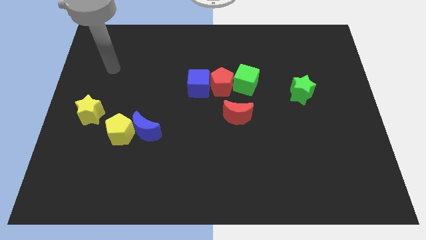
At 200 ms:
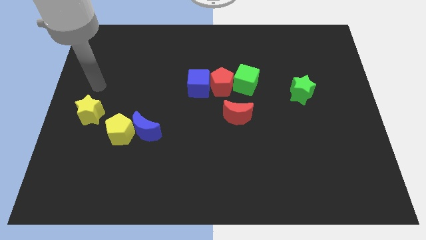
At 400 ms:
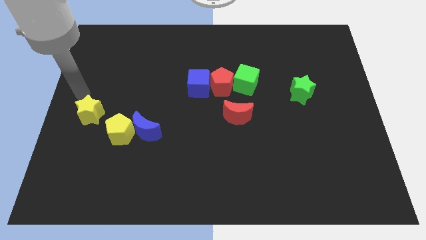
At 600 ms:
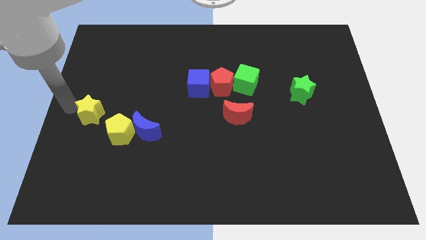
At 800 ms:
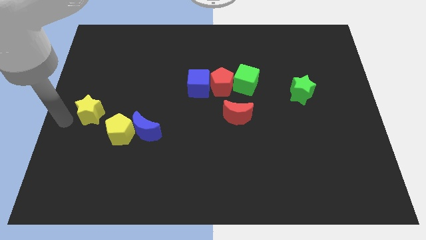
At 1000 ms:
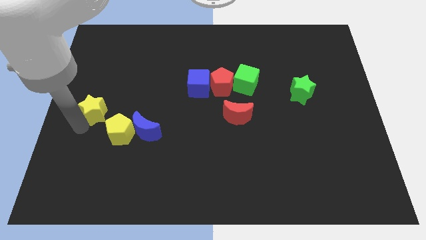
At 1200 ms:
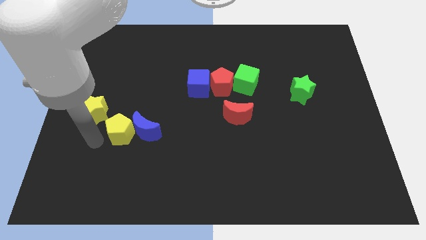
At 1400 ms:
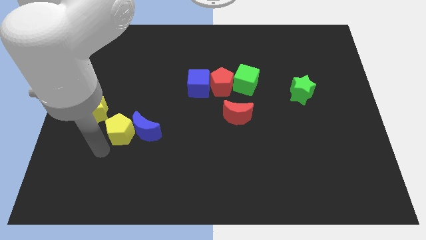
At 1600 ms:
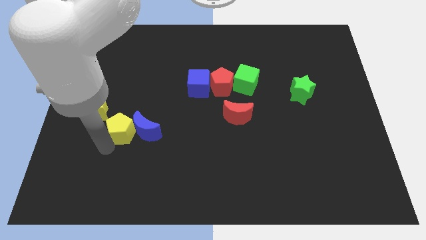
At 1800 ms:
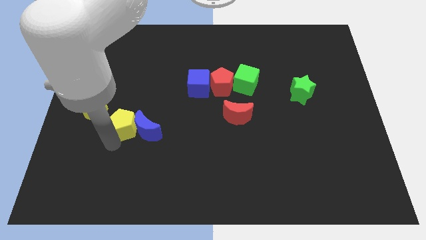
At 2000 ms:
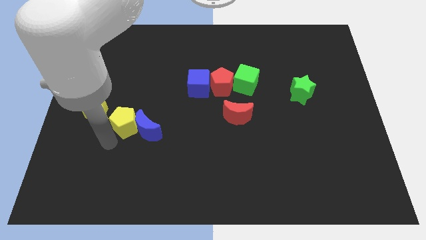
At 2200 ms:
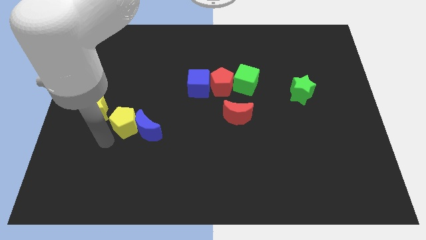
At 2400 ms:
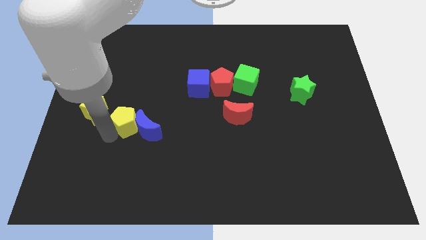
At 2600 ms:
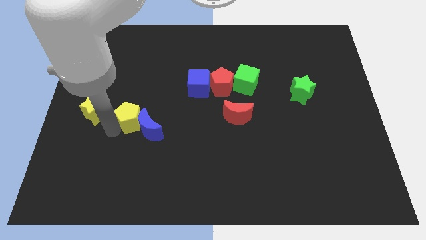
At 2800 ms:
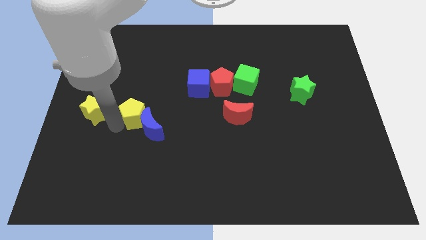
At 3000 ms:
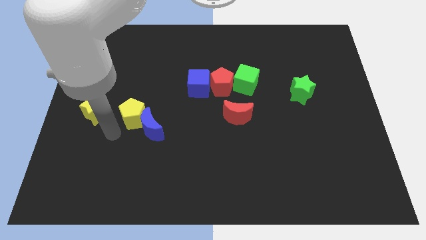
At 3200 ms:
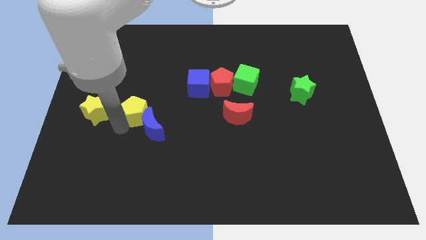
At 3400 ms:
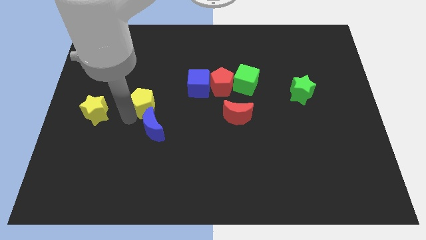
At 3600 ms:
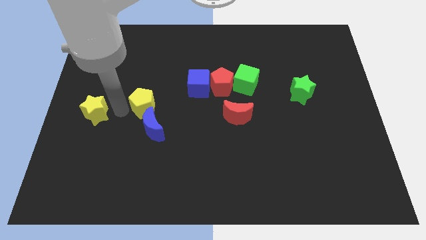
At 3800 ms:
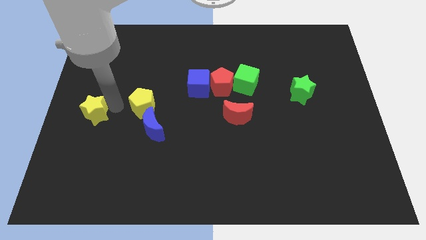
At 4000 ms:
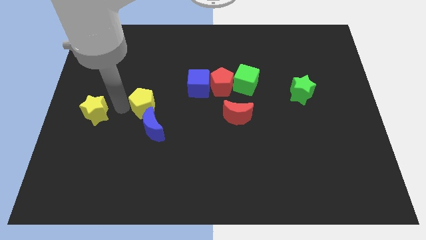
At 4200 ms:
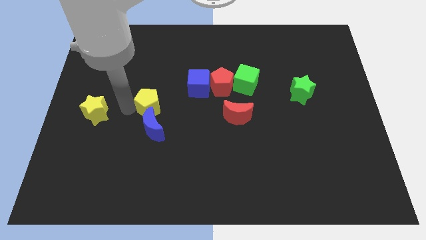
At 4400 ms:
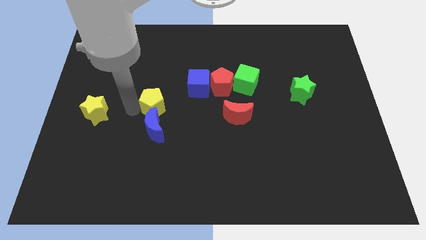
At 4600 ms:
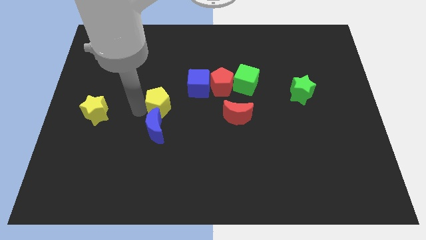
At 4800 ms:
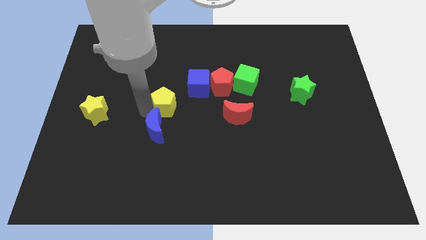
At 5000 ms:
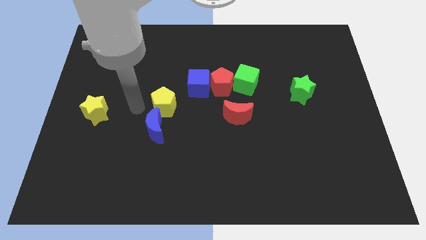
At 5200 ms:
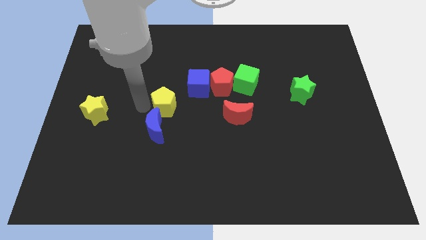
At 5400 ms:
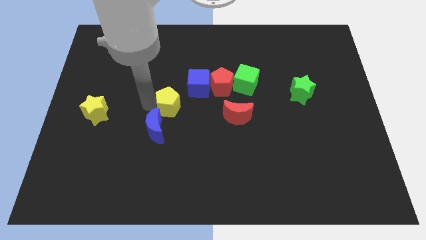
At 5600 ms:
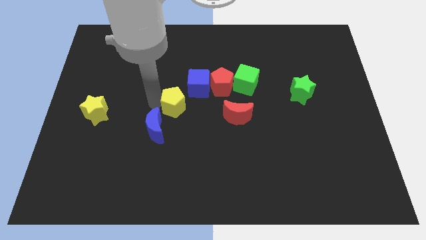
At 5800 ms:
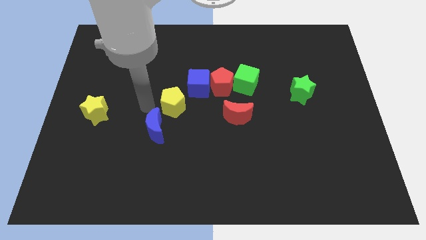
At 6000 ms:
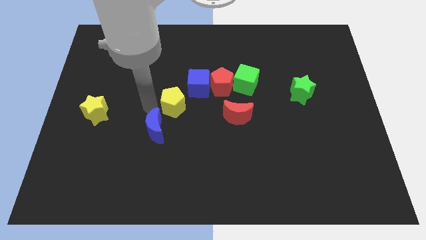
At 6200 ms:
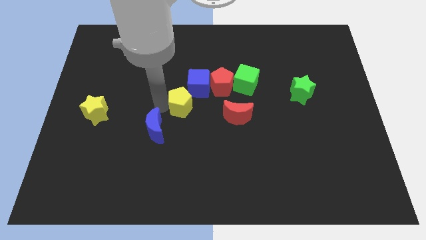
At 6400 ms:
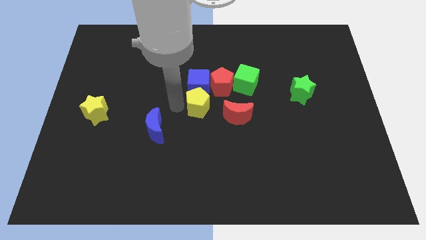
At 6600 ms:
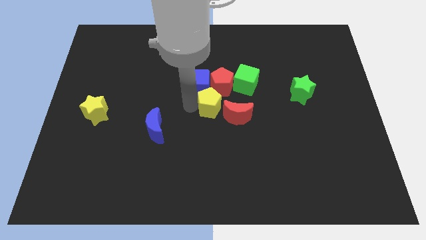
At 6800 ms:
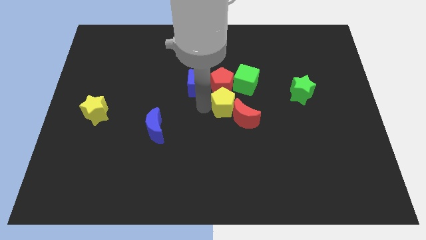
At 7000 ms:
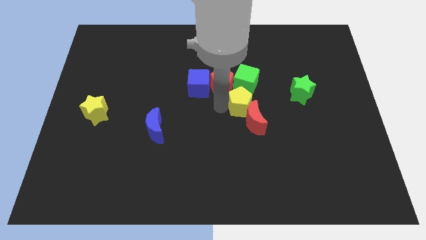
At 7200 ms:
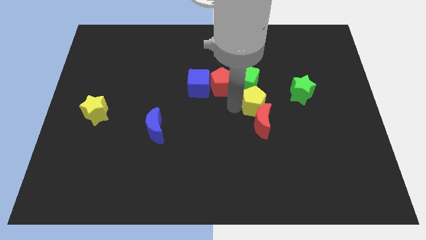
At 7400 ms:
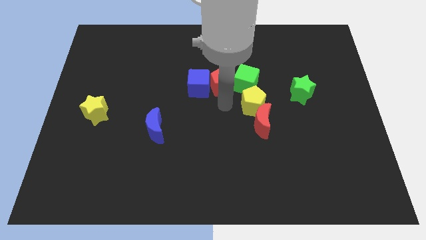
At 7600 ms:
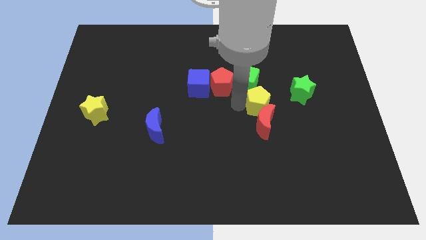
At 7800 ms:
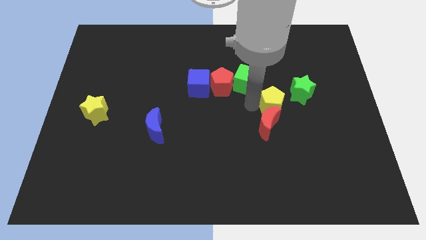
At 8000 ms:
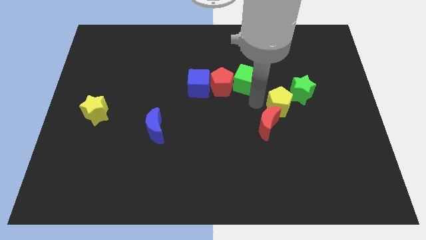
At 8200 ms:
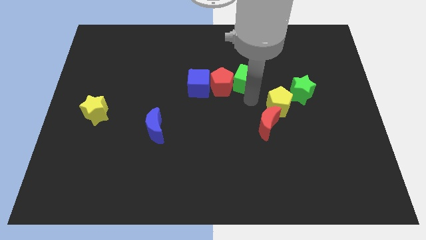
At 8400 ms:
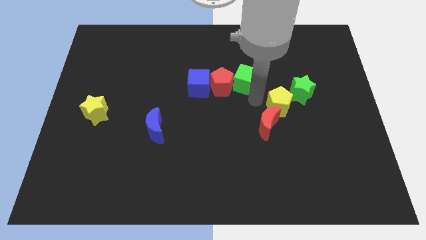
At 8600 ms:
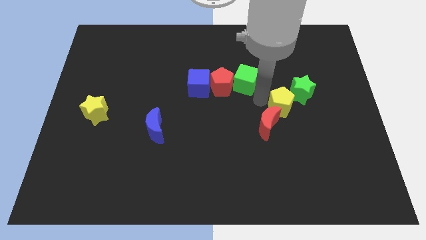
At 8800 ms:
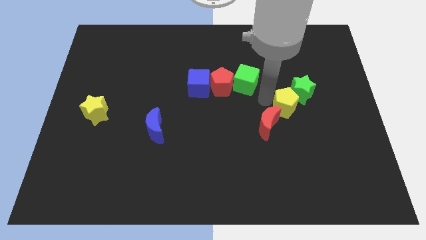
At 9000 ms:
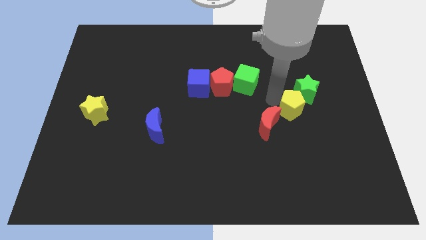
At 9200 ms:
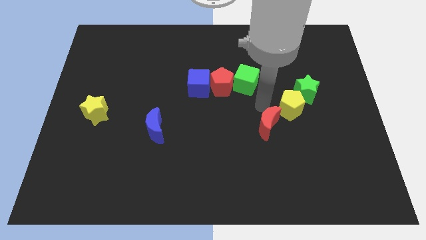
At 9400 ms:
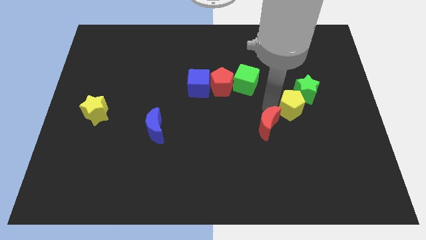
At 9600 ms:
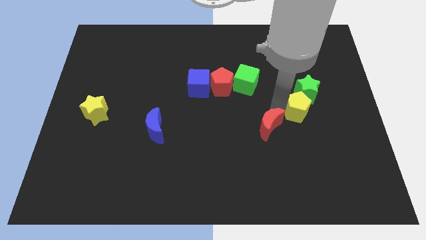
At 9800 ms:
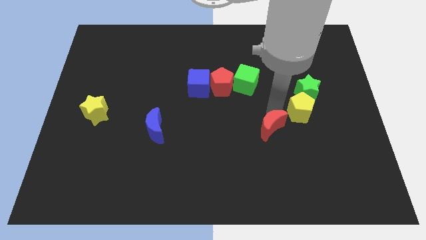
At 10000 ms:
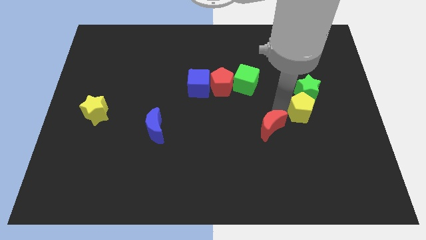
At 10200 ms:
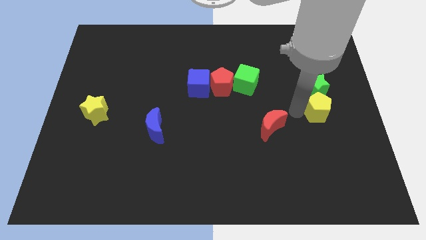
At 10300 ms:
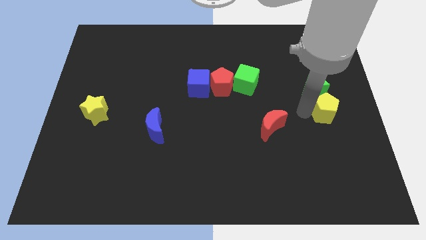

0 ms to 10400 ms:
push the yellow pentagon to the bottom right side of the green star

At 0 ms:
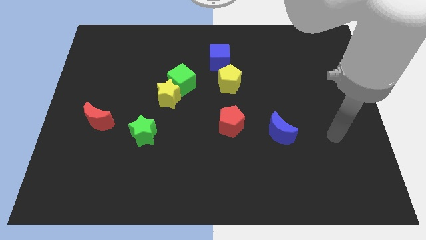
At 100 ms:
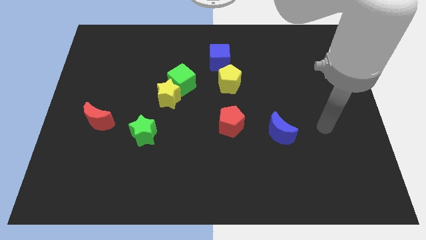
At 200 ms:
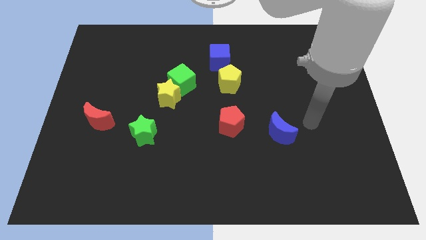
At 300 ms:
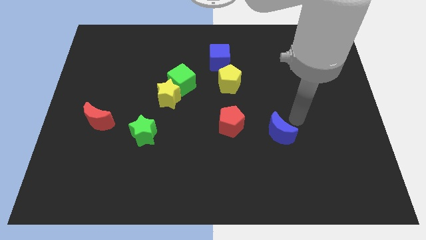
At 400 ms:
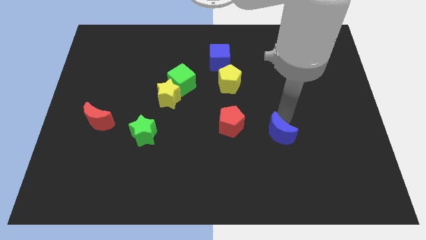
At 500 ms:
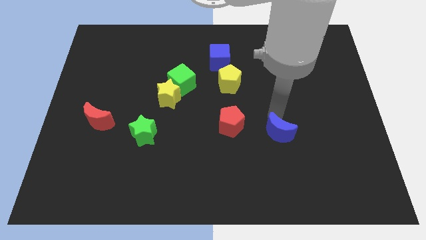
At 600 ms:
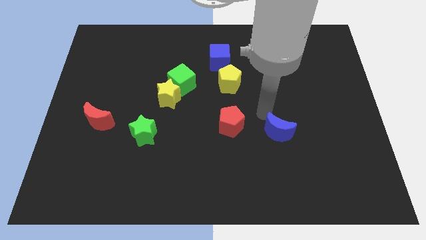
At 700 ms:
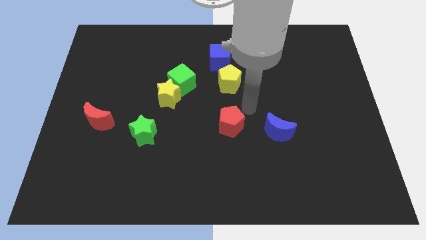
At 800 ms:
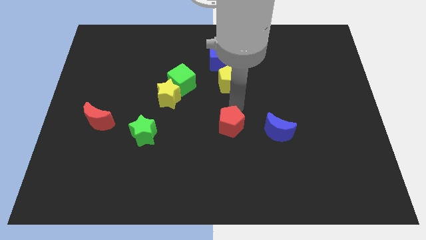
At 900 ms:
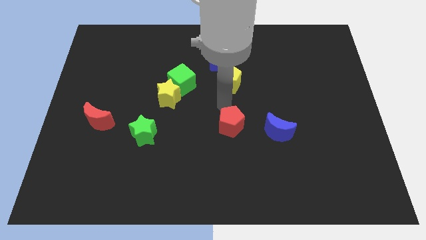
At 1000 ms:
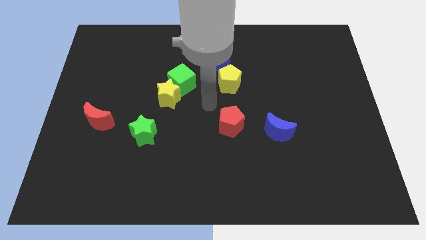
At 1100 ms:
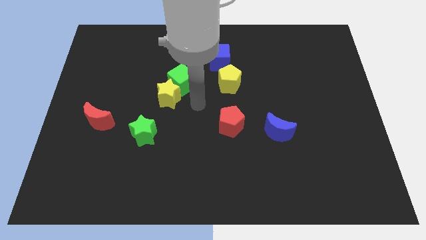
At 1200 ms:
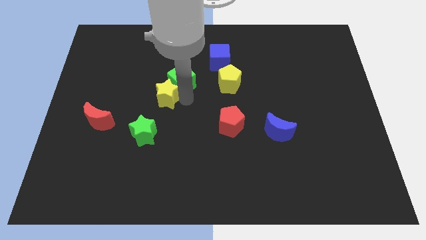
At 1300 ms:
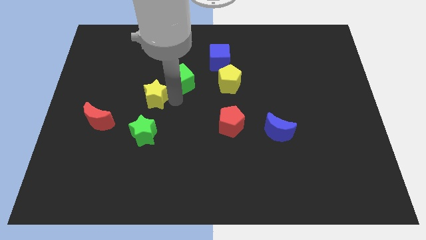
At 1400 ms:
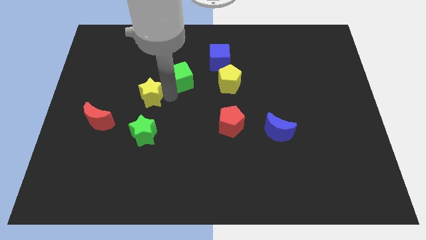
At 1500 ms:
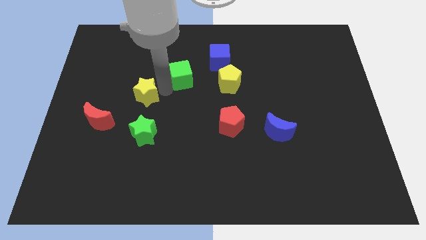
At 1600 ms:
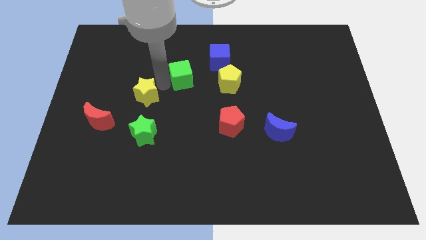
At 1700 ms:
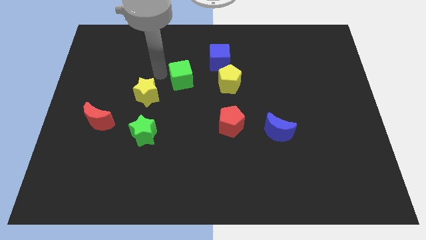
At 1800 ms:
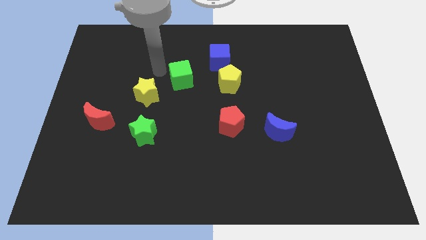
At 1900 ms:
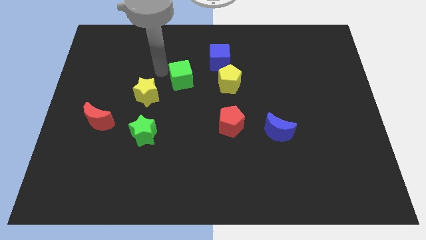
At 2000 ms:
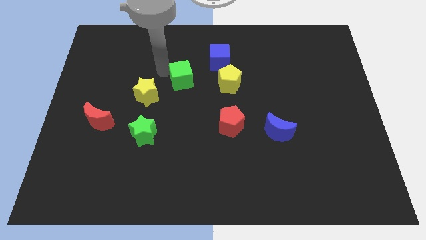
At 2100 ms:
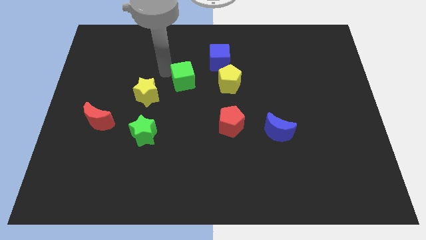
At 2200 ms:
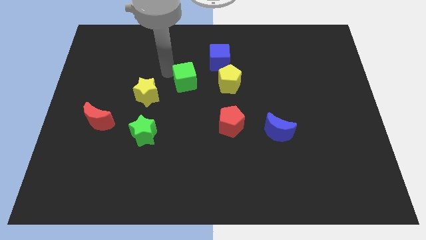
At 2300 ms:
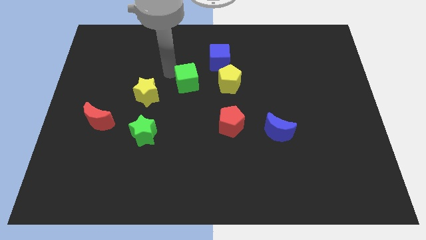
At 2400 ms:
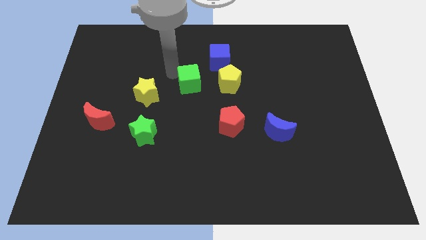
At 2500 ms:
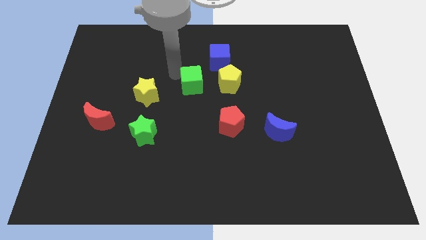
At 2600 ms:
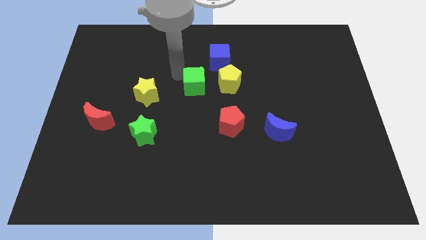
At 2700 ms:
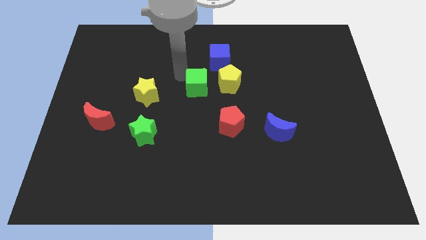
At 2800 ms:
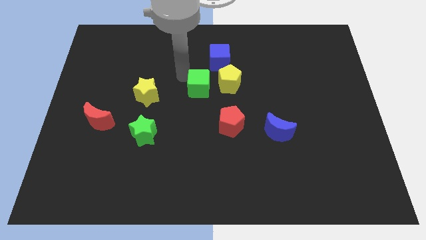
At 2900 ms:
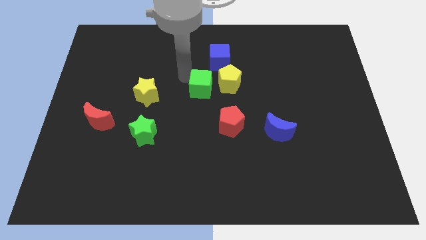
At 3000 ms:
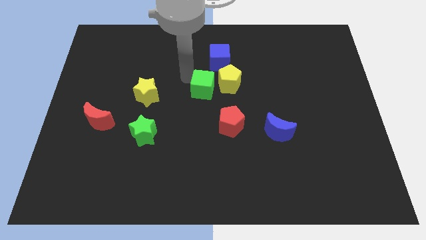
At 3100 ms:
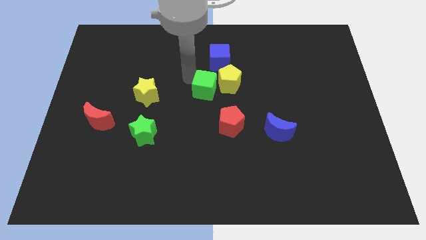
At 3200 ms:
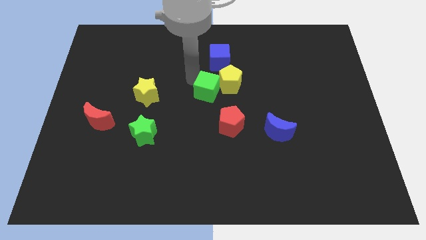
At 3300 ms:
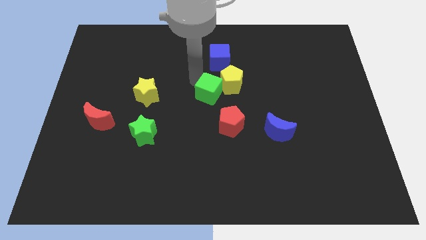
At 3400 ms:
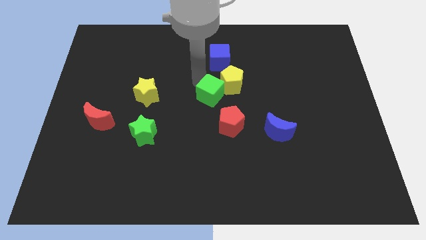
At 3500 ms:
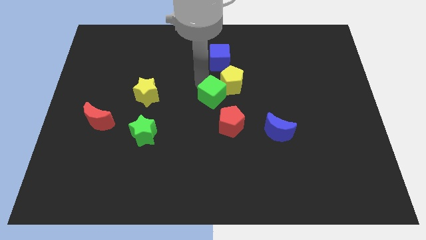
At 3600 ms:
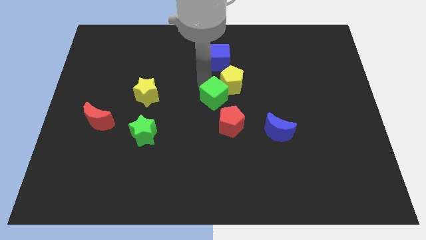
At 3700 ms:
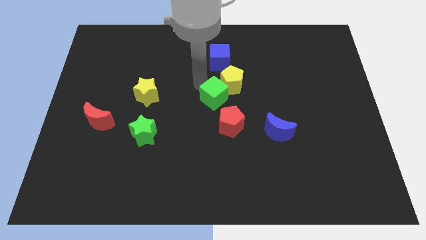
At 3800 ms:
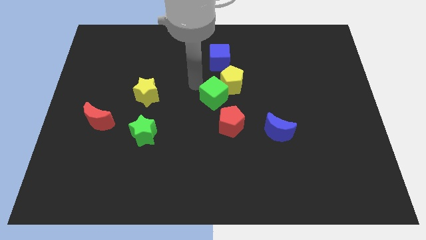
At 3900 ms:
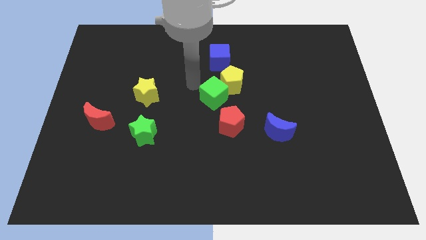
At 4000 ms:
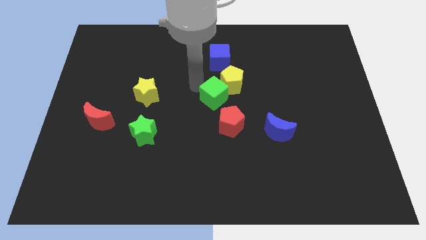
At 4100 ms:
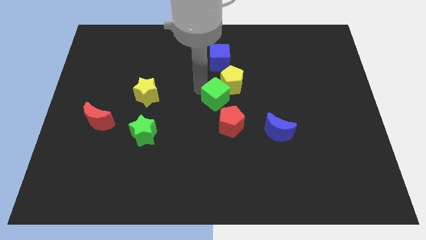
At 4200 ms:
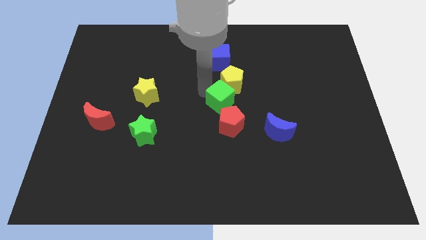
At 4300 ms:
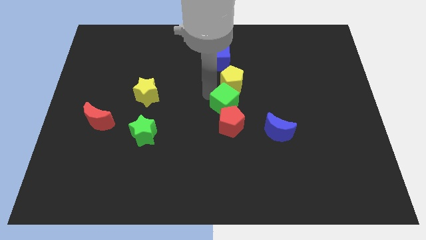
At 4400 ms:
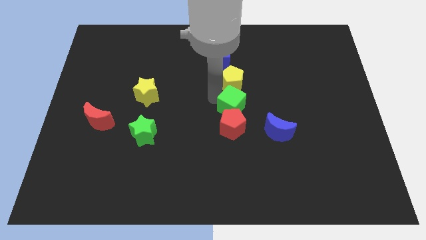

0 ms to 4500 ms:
push the green cube diagonally up and to the left of the blue moon
